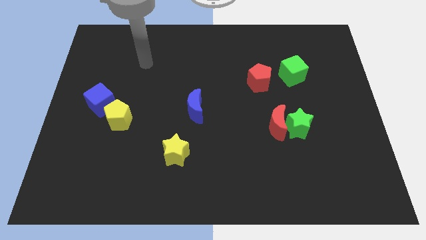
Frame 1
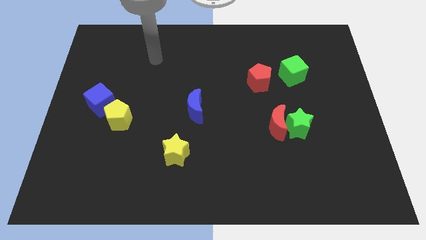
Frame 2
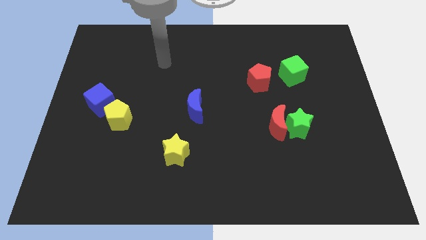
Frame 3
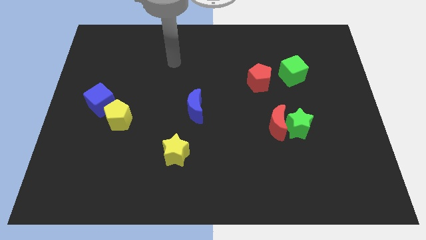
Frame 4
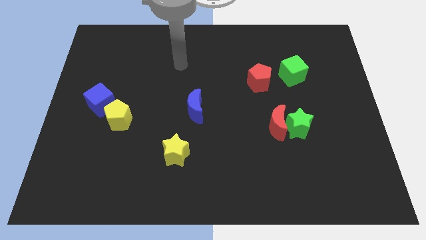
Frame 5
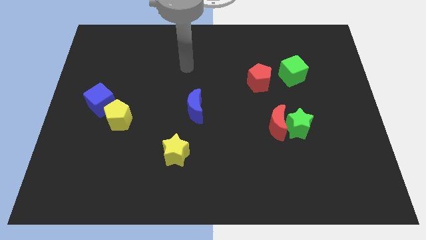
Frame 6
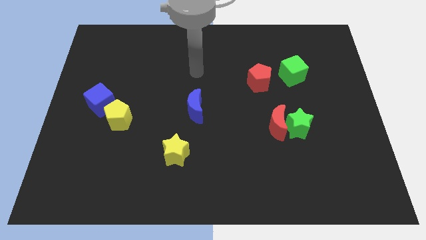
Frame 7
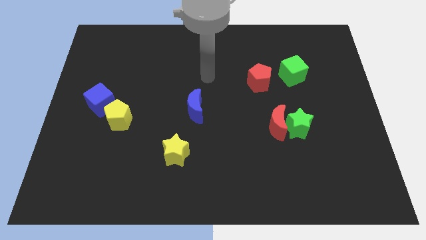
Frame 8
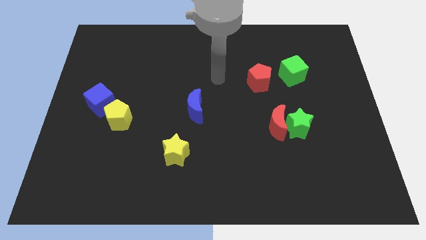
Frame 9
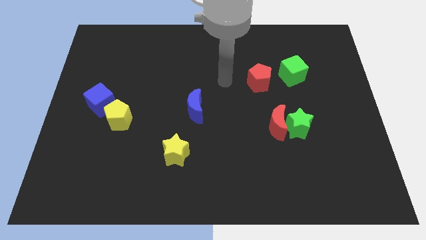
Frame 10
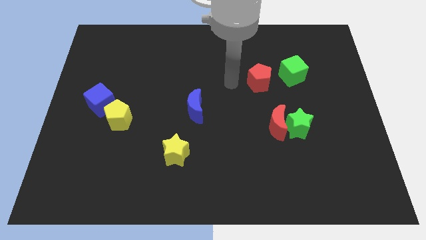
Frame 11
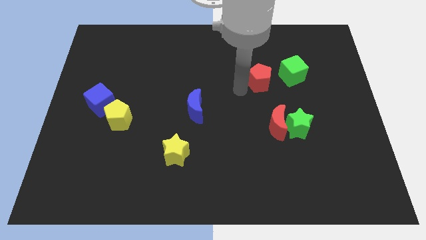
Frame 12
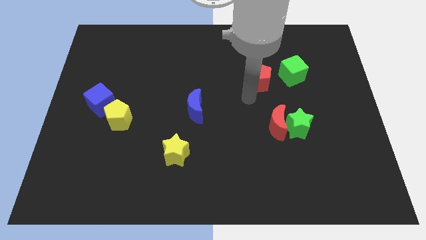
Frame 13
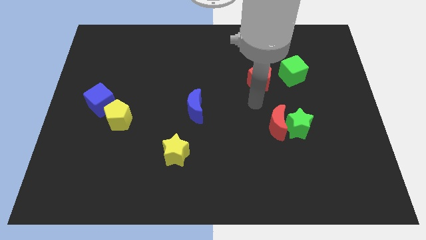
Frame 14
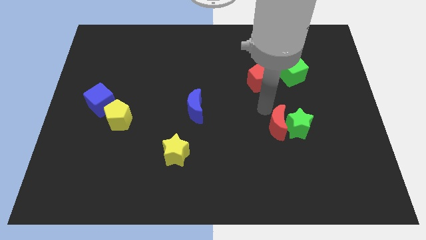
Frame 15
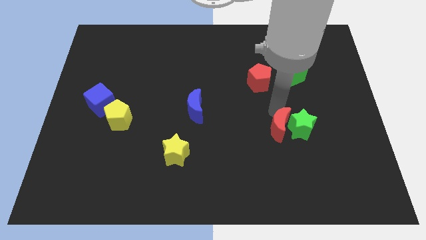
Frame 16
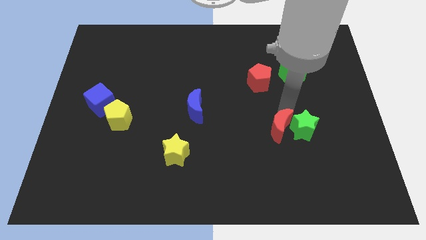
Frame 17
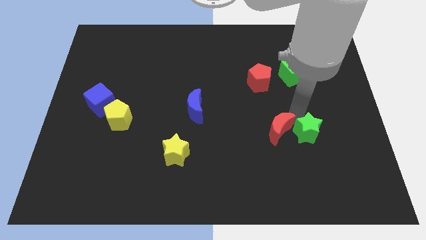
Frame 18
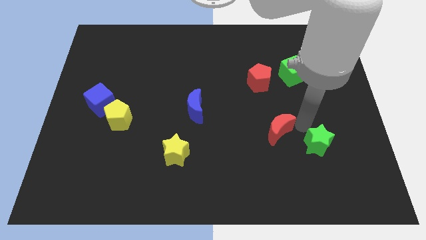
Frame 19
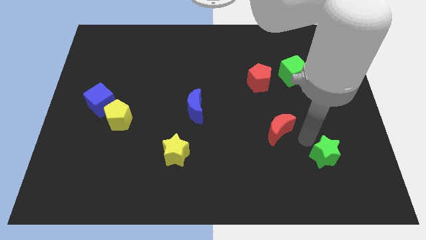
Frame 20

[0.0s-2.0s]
pull the red moon apart from the green star

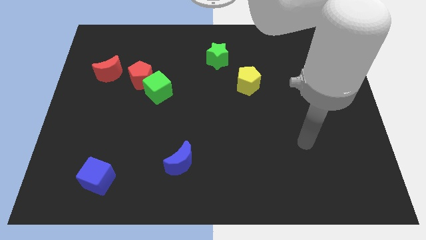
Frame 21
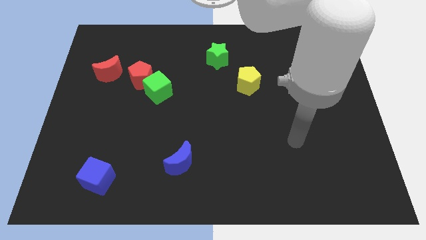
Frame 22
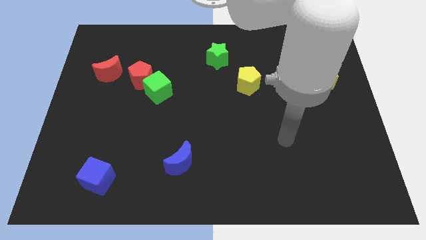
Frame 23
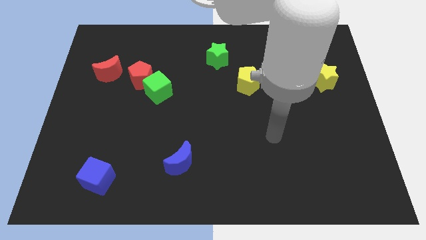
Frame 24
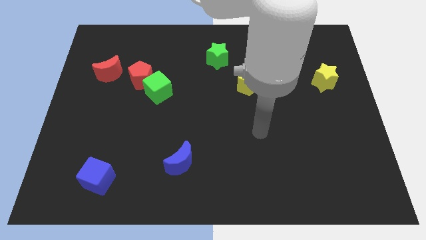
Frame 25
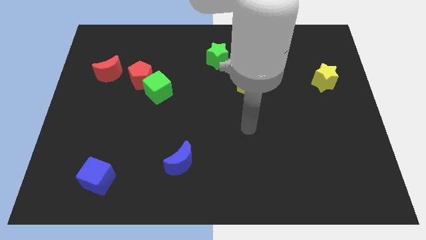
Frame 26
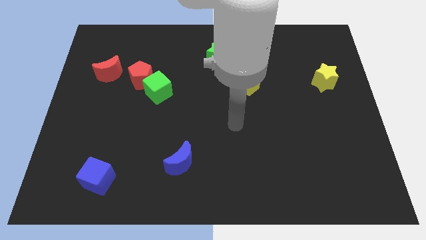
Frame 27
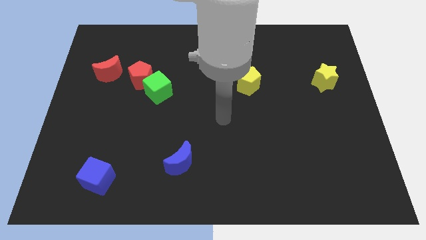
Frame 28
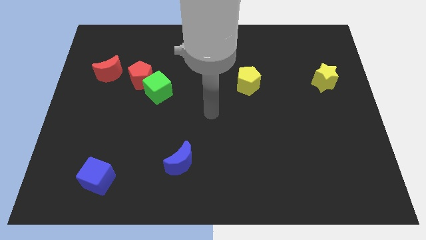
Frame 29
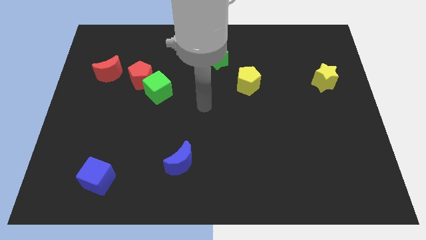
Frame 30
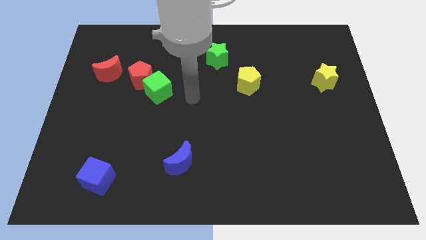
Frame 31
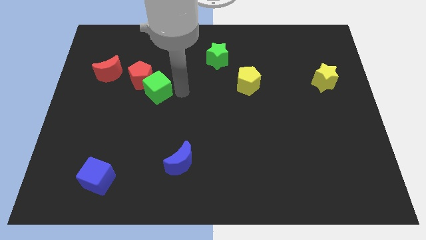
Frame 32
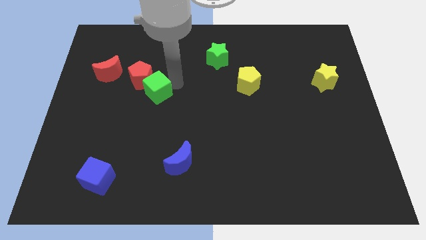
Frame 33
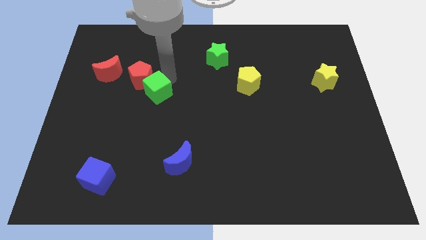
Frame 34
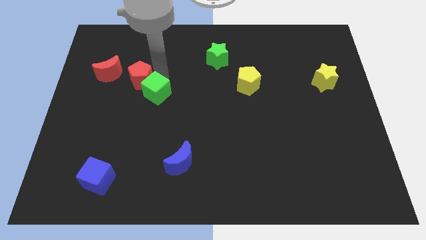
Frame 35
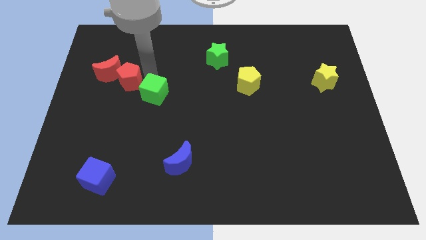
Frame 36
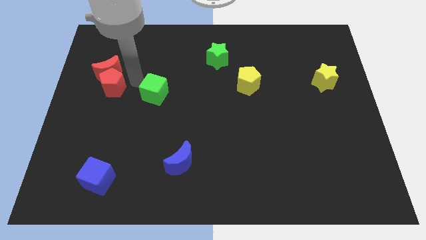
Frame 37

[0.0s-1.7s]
move the green cube away from the red pentagon

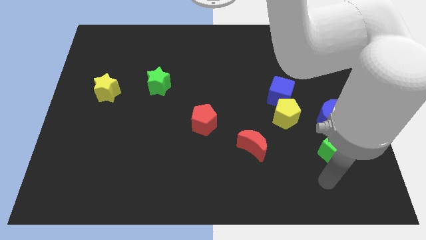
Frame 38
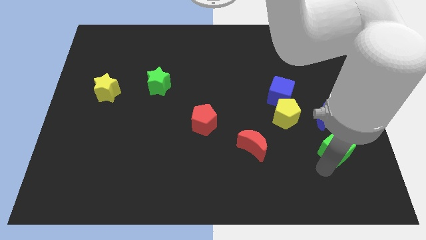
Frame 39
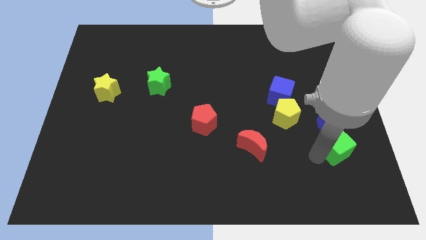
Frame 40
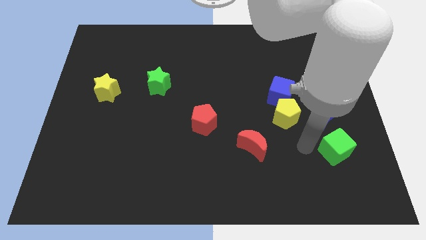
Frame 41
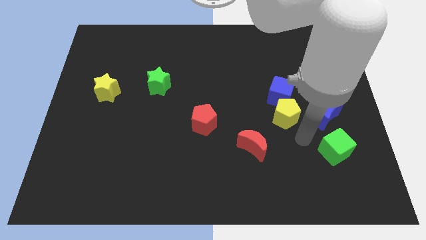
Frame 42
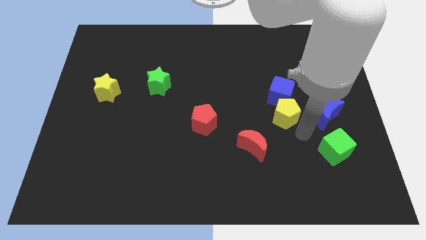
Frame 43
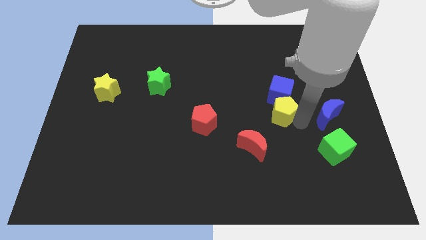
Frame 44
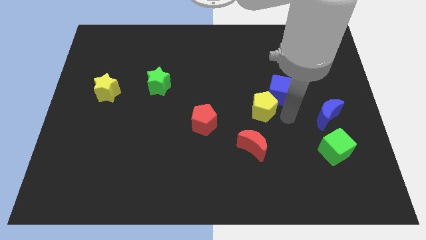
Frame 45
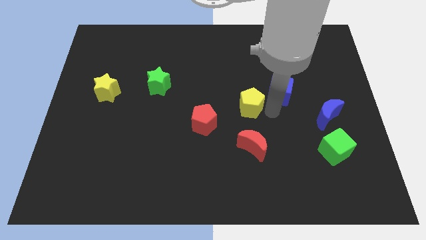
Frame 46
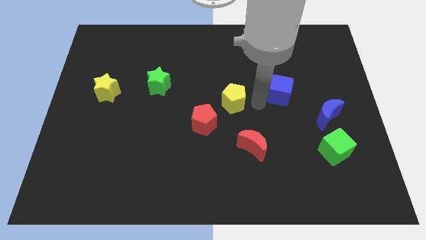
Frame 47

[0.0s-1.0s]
separate the blue cube from the yellow pentagon

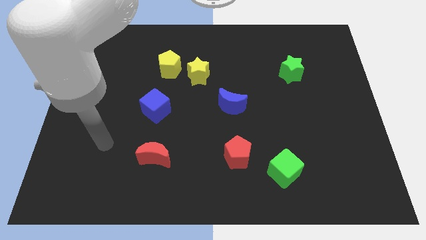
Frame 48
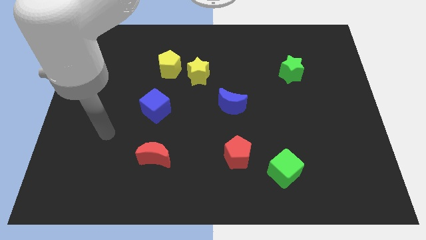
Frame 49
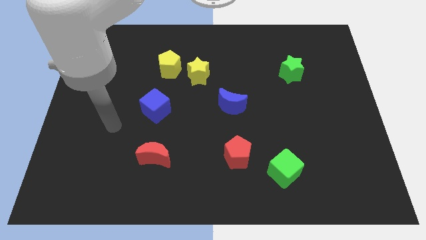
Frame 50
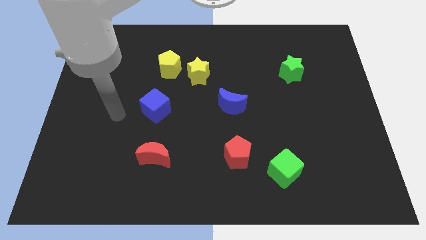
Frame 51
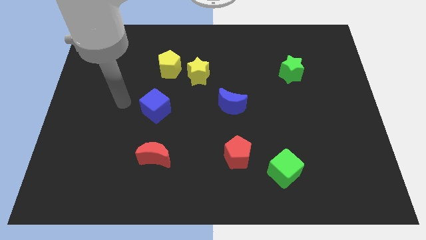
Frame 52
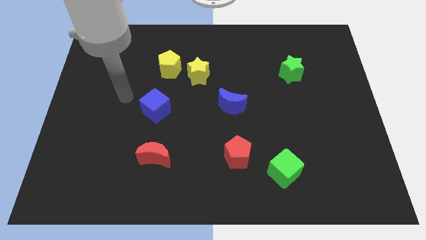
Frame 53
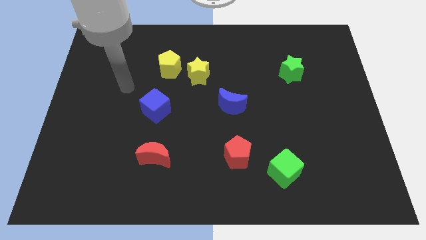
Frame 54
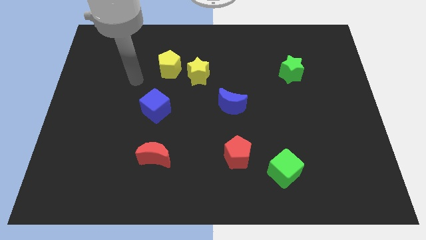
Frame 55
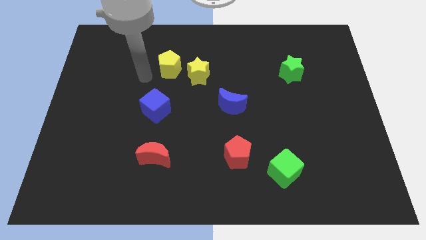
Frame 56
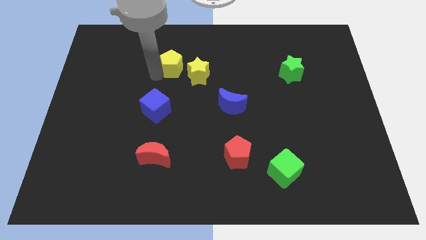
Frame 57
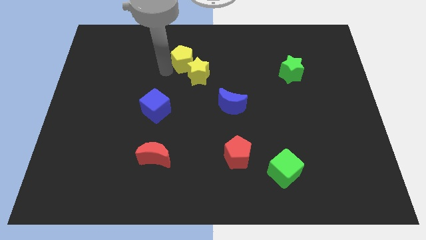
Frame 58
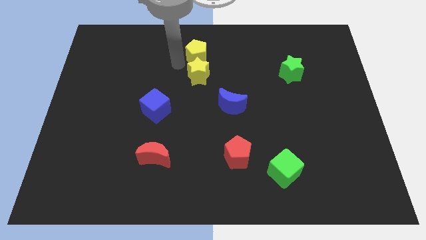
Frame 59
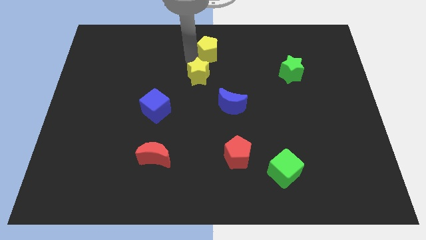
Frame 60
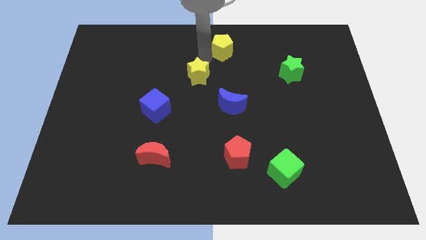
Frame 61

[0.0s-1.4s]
separate the yellow star from the yellow pentagon

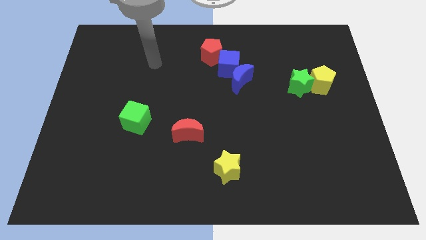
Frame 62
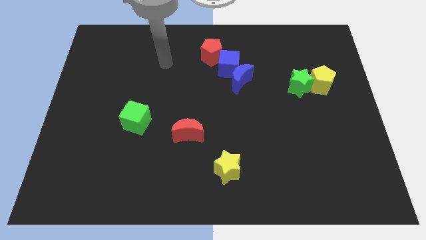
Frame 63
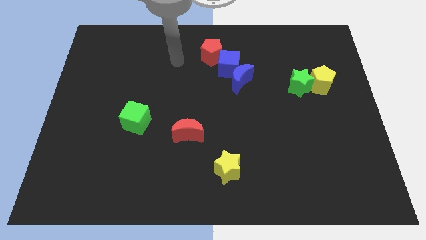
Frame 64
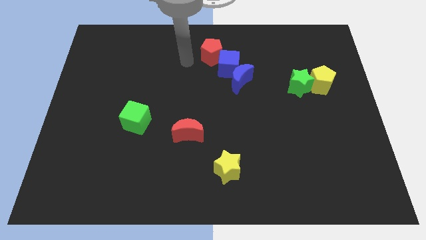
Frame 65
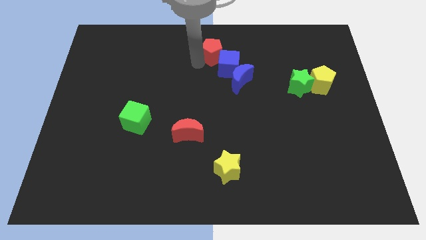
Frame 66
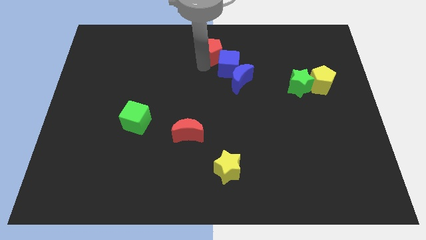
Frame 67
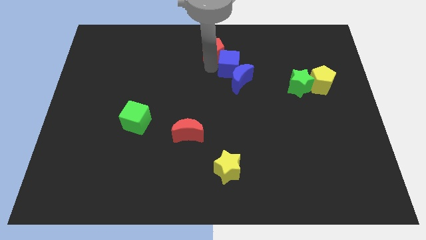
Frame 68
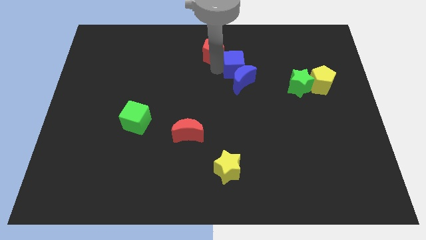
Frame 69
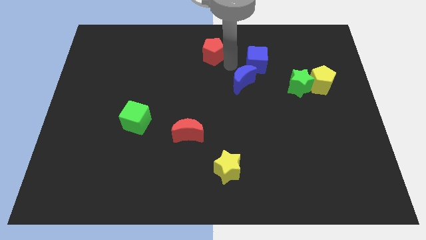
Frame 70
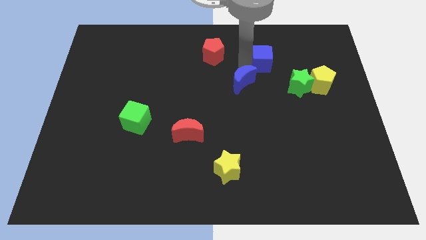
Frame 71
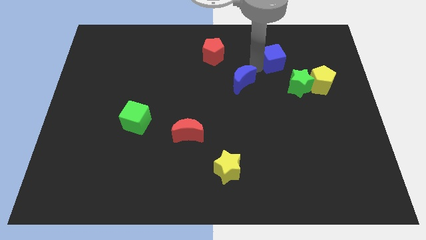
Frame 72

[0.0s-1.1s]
pull the blue moon apart from the blue cube

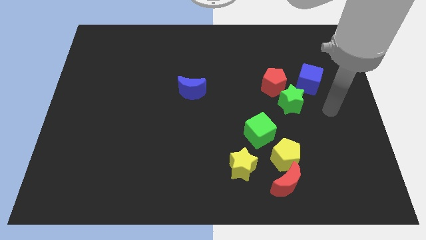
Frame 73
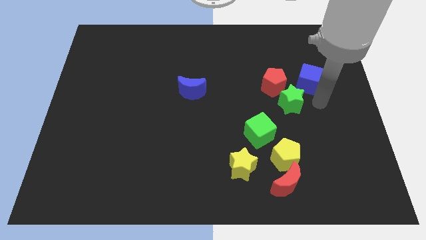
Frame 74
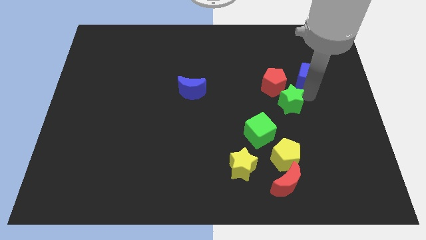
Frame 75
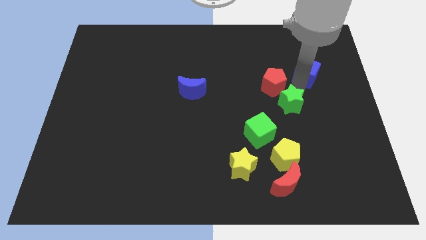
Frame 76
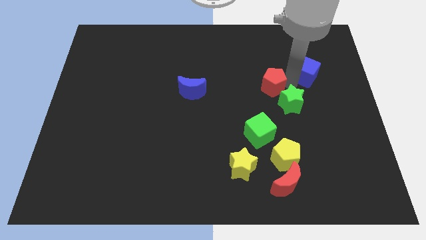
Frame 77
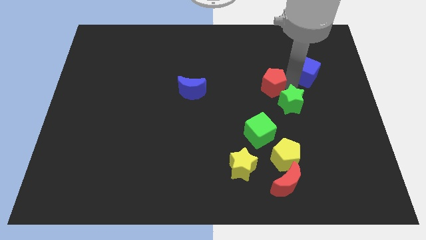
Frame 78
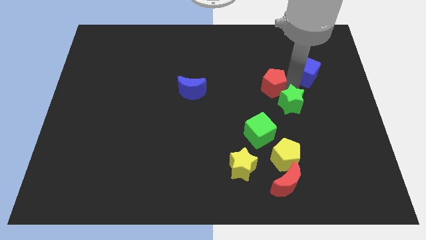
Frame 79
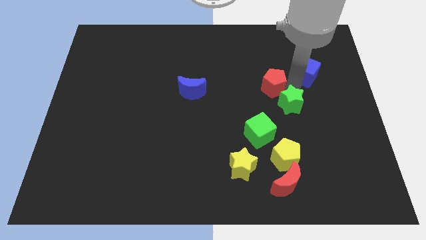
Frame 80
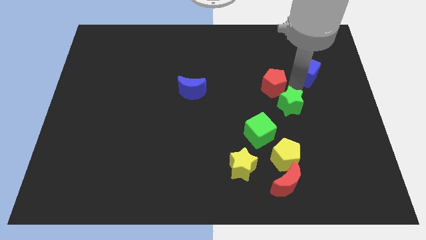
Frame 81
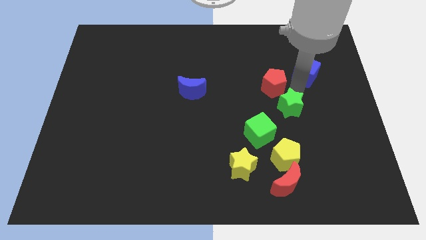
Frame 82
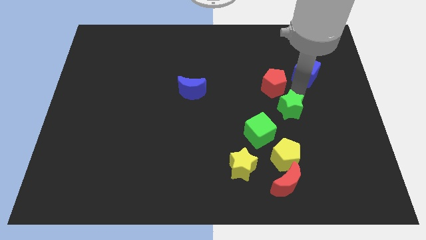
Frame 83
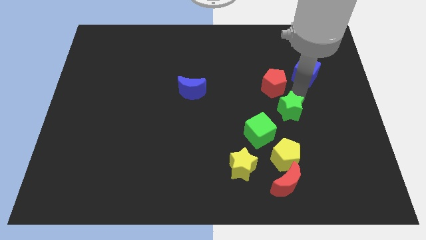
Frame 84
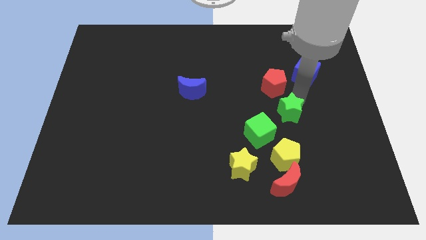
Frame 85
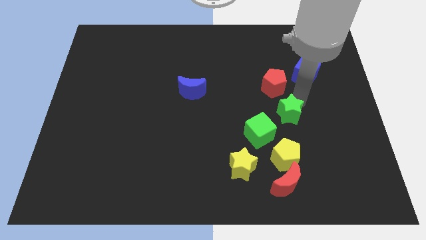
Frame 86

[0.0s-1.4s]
move the green star away from the red pentagon and blue cube

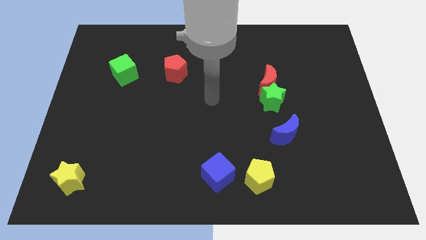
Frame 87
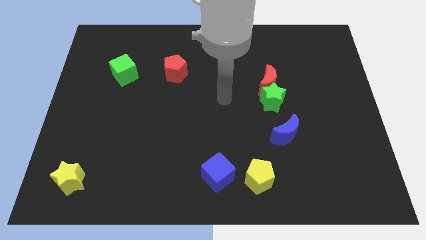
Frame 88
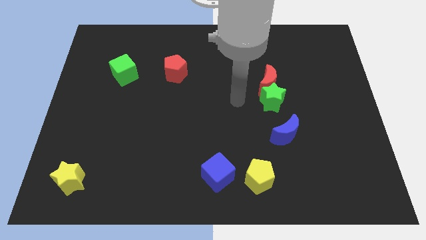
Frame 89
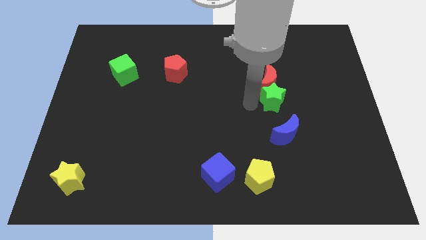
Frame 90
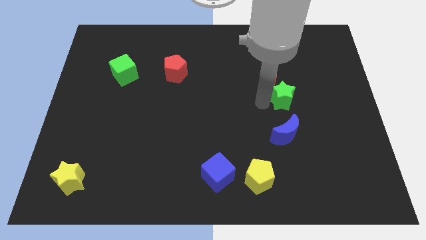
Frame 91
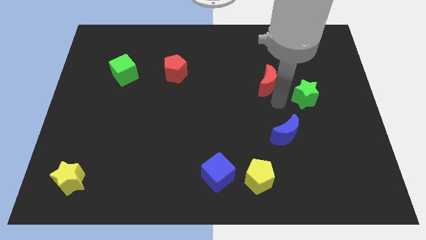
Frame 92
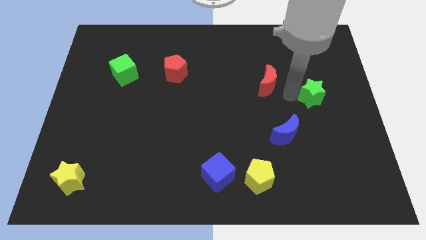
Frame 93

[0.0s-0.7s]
move the red moon away from the green star
